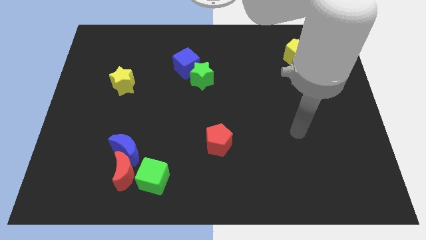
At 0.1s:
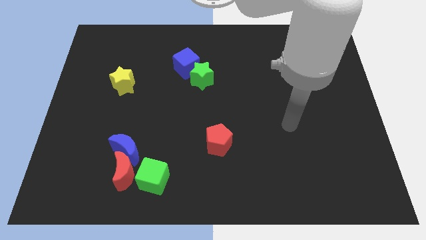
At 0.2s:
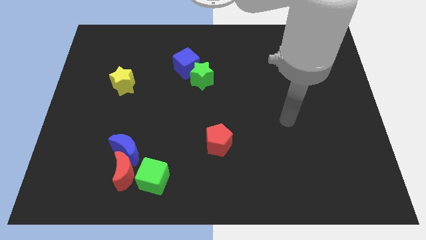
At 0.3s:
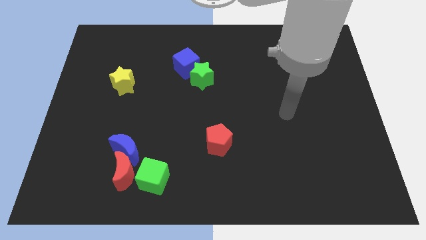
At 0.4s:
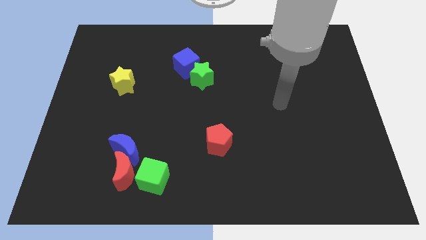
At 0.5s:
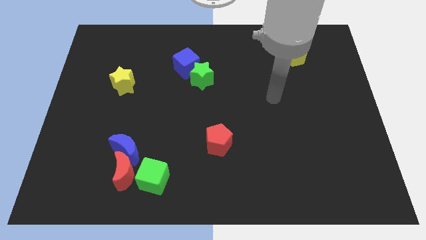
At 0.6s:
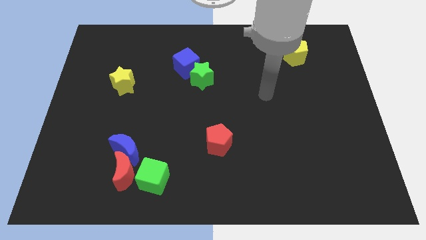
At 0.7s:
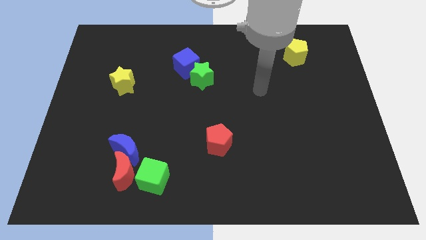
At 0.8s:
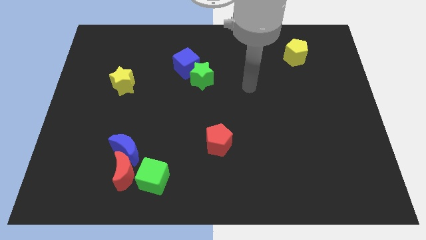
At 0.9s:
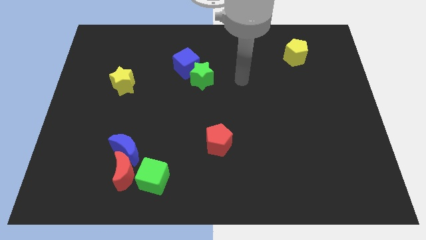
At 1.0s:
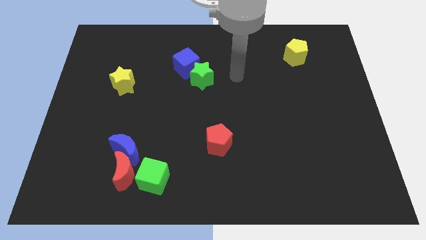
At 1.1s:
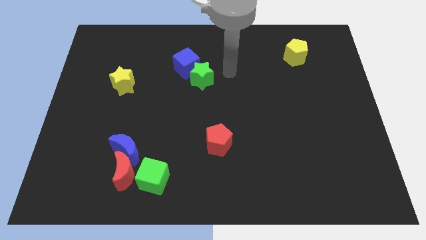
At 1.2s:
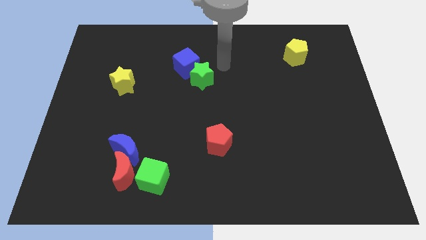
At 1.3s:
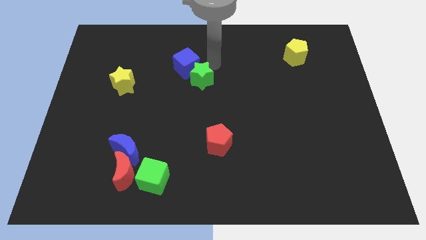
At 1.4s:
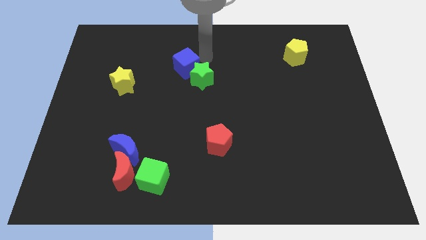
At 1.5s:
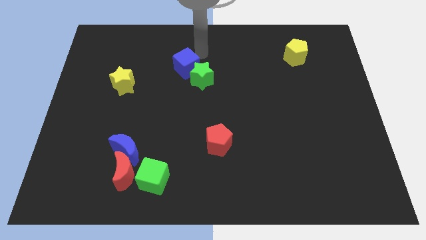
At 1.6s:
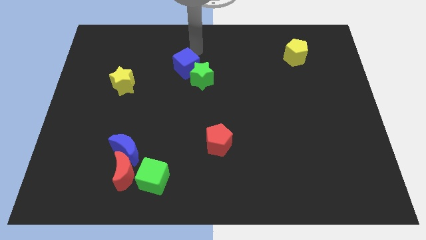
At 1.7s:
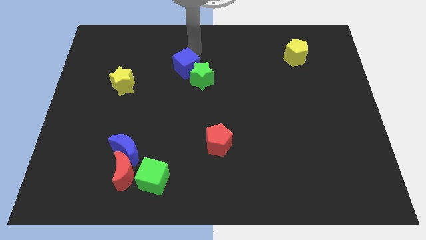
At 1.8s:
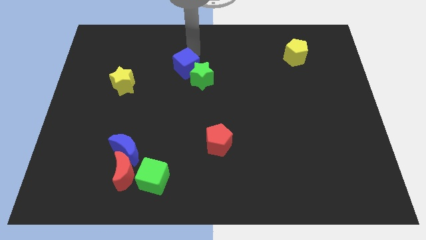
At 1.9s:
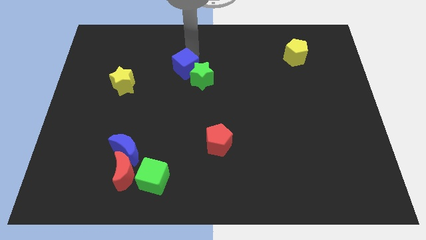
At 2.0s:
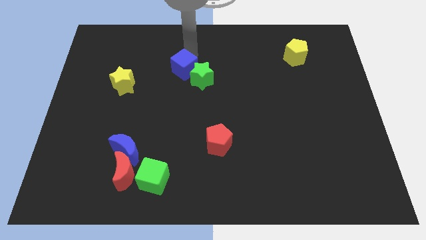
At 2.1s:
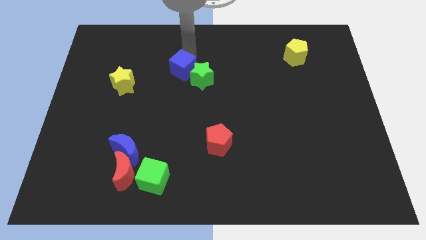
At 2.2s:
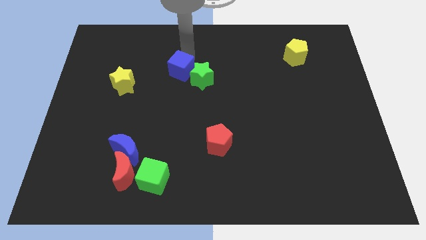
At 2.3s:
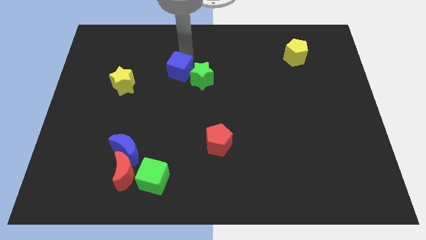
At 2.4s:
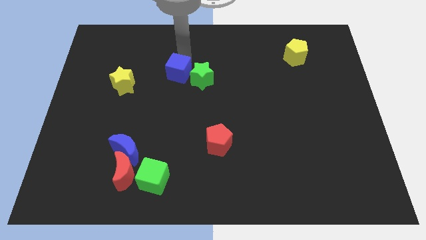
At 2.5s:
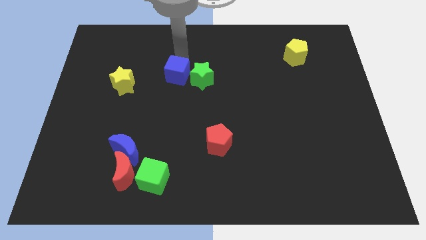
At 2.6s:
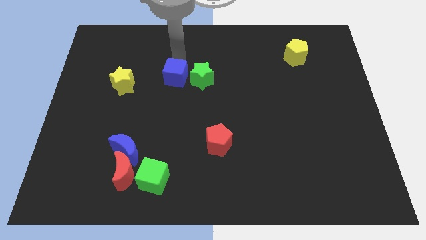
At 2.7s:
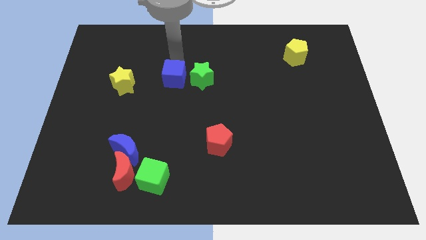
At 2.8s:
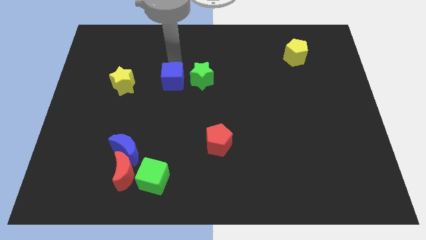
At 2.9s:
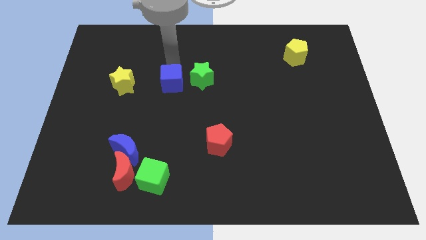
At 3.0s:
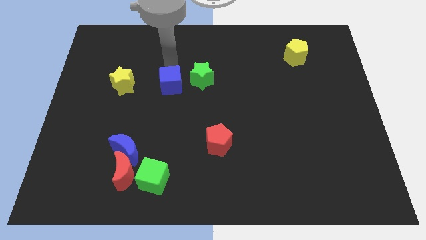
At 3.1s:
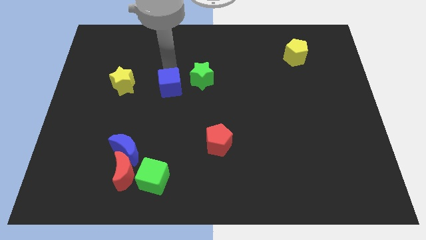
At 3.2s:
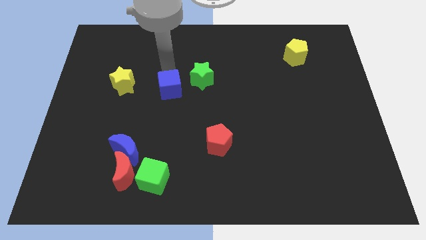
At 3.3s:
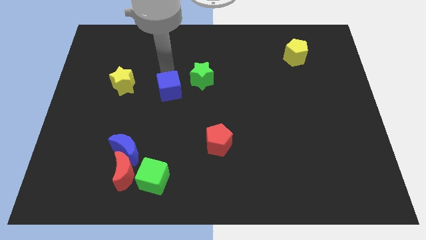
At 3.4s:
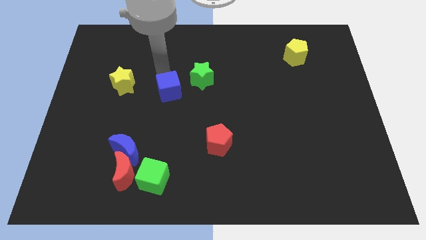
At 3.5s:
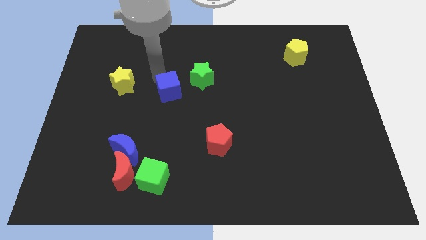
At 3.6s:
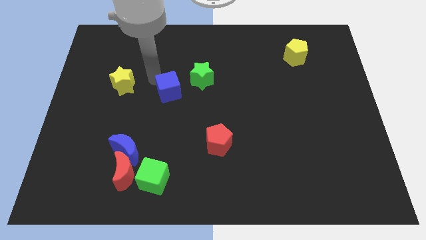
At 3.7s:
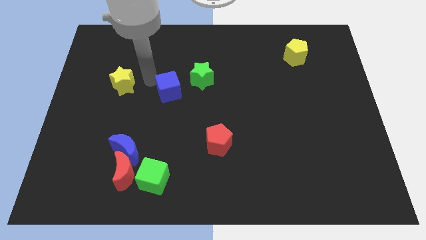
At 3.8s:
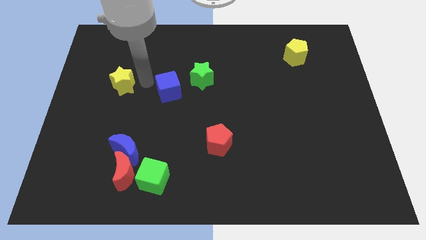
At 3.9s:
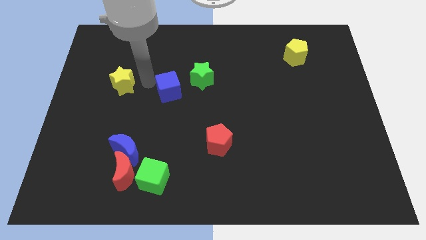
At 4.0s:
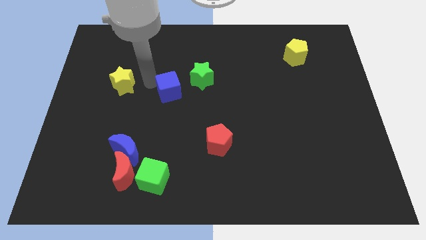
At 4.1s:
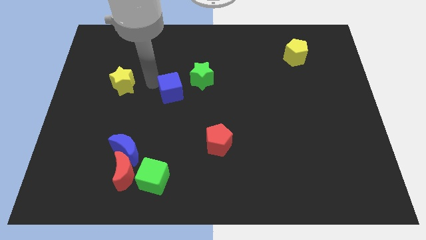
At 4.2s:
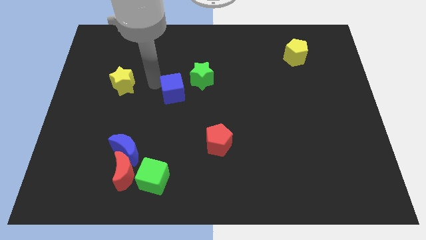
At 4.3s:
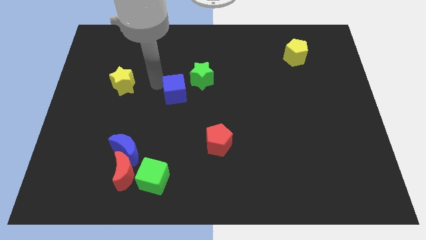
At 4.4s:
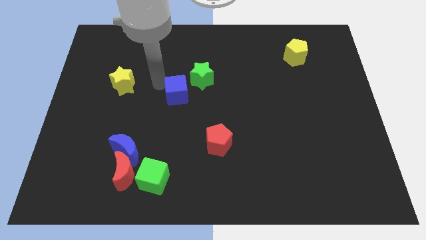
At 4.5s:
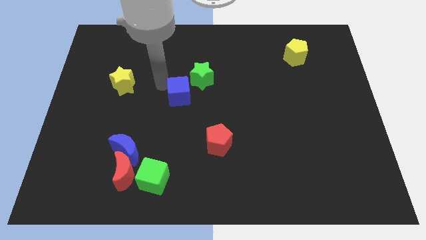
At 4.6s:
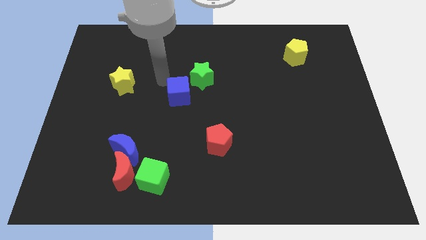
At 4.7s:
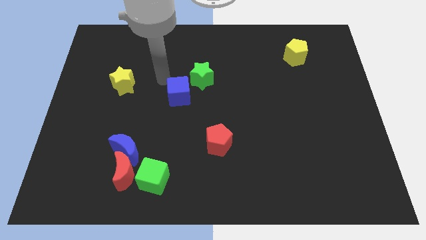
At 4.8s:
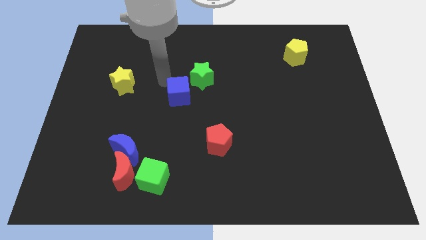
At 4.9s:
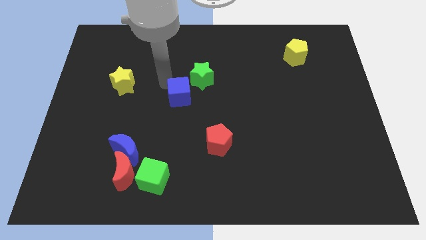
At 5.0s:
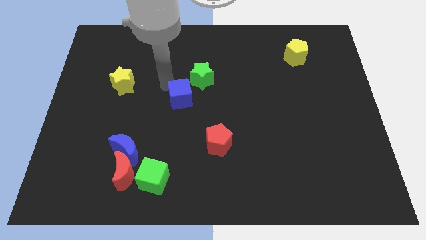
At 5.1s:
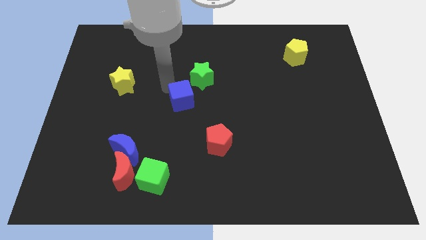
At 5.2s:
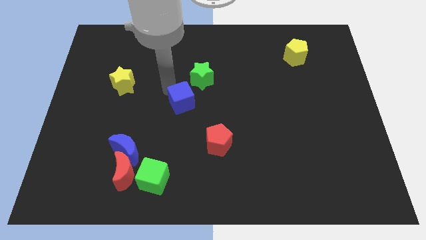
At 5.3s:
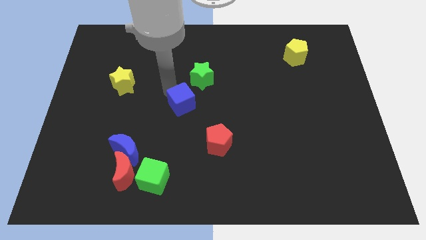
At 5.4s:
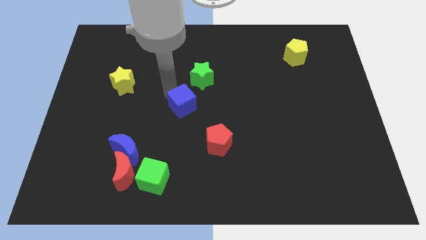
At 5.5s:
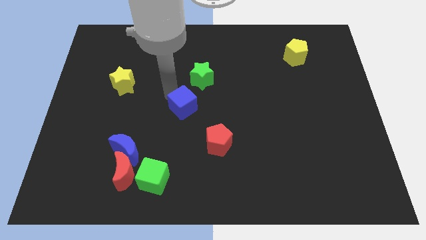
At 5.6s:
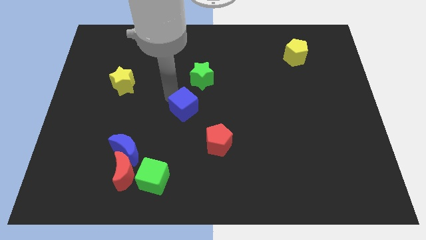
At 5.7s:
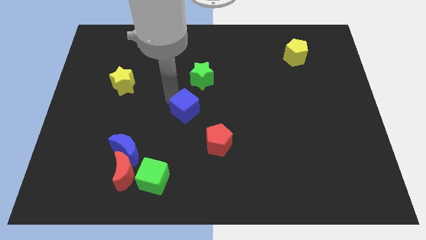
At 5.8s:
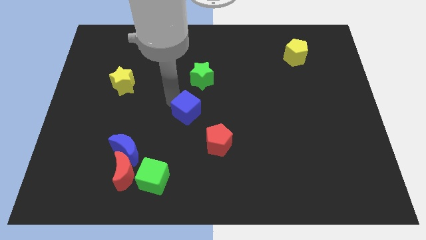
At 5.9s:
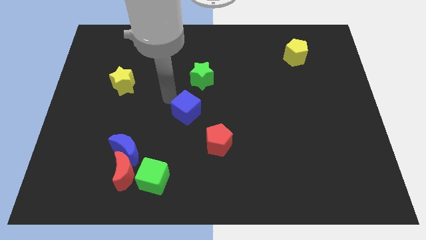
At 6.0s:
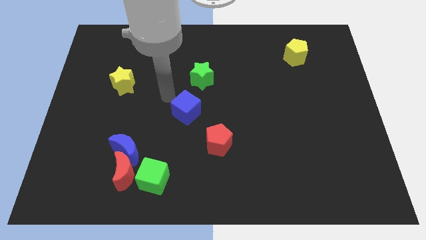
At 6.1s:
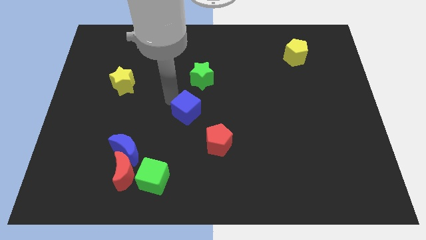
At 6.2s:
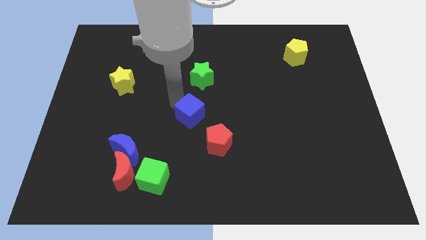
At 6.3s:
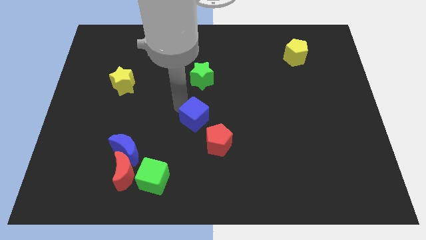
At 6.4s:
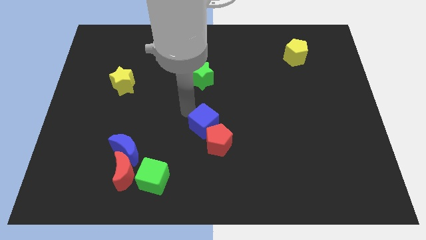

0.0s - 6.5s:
move the blue cube next to the red pentagon

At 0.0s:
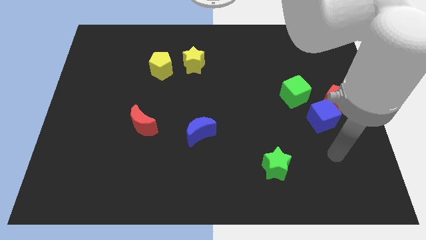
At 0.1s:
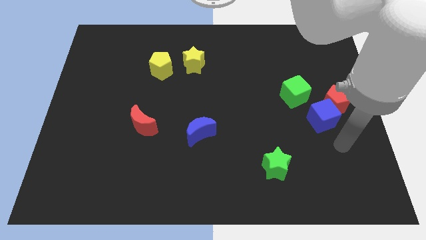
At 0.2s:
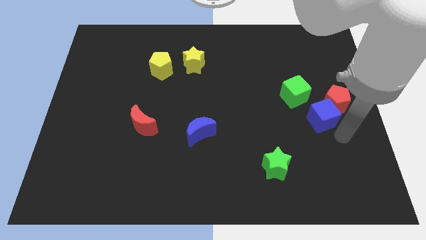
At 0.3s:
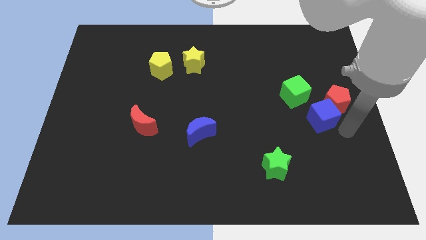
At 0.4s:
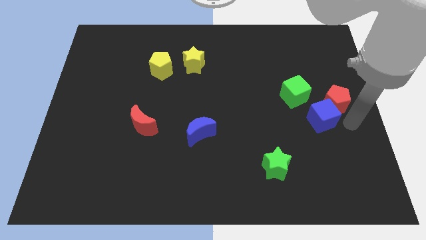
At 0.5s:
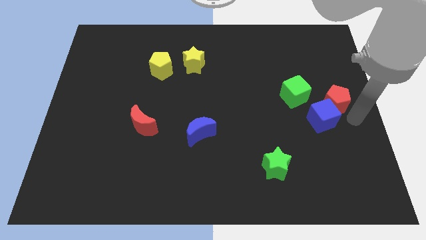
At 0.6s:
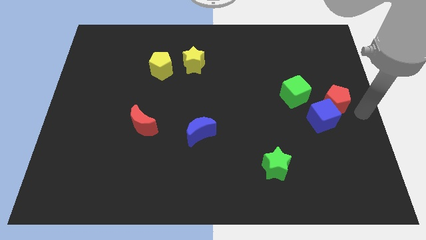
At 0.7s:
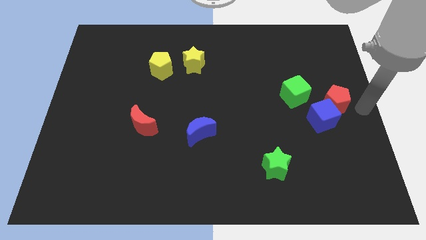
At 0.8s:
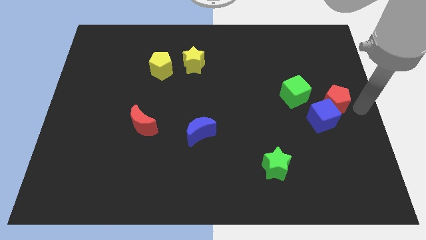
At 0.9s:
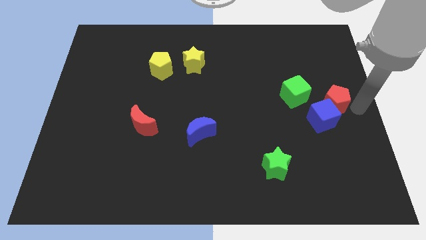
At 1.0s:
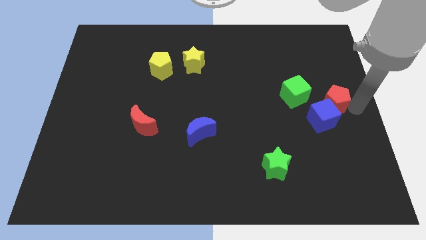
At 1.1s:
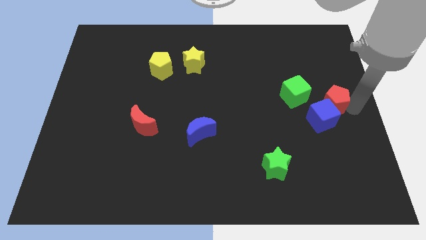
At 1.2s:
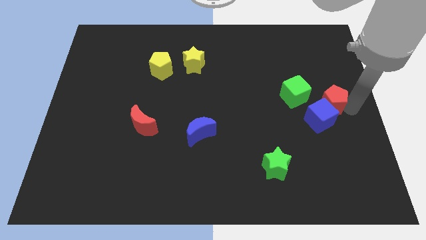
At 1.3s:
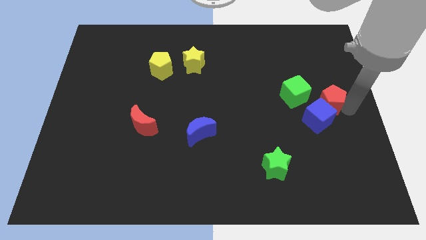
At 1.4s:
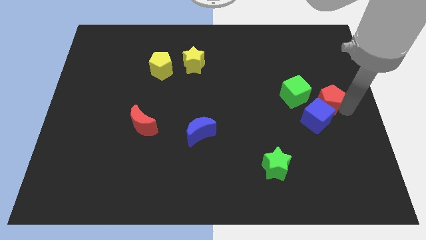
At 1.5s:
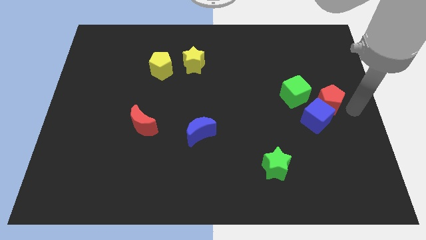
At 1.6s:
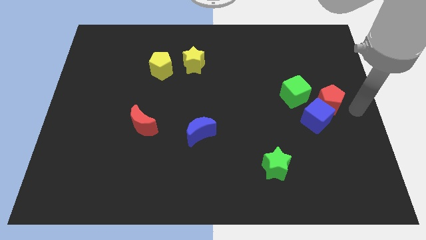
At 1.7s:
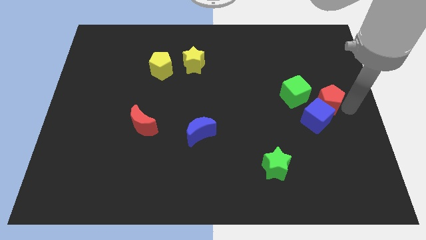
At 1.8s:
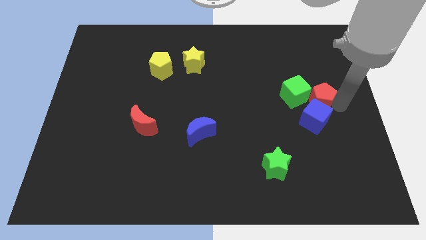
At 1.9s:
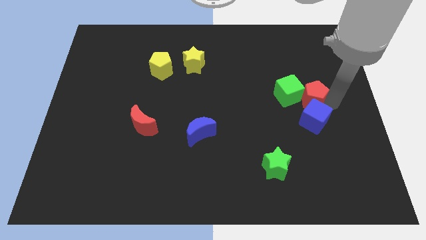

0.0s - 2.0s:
put the red pentagon towards the green cube
